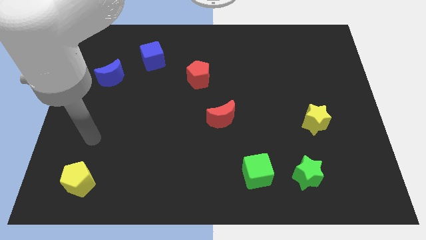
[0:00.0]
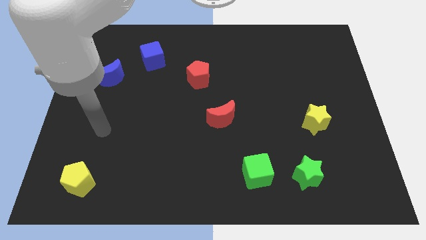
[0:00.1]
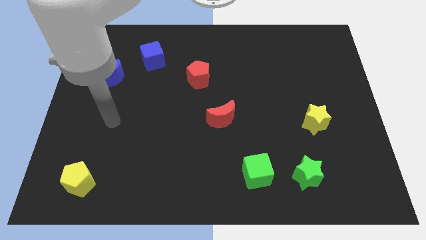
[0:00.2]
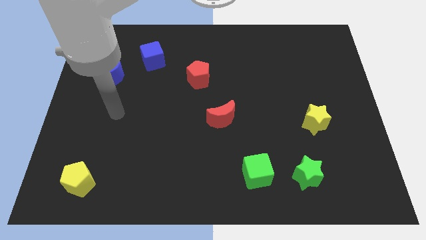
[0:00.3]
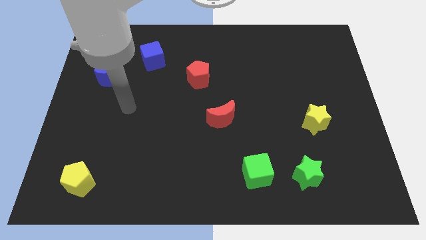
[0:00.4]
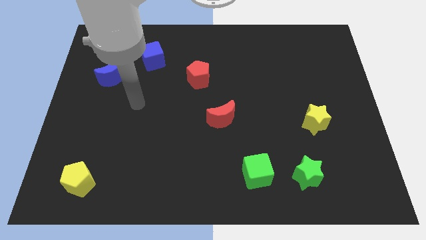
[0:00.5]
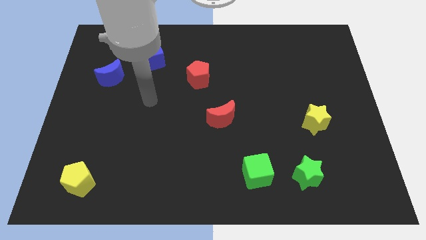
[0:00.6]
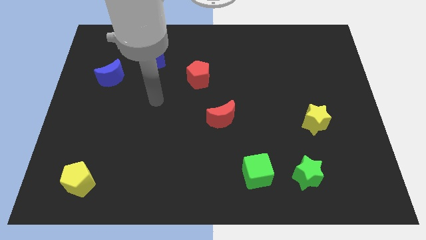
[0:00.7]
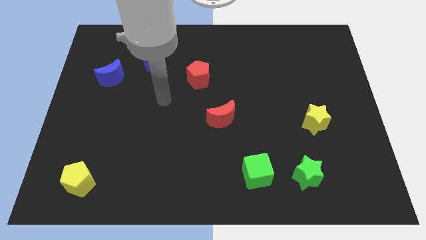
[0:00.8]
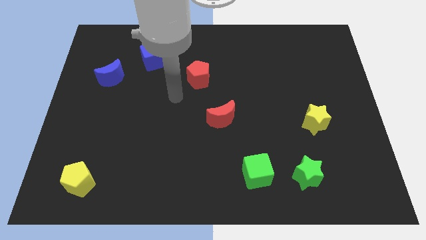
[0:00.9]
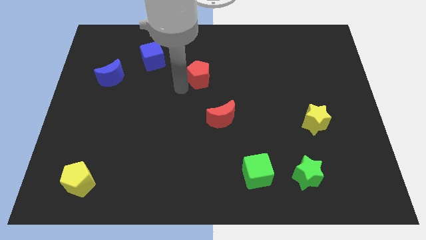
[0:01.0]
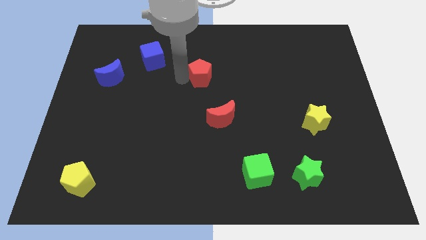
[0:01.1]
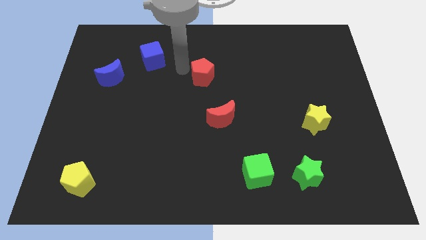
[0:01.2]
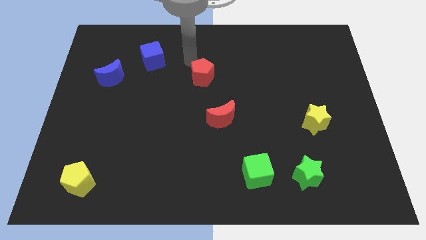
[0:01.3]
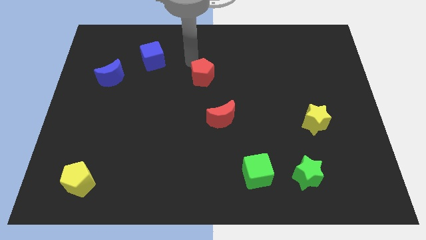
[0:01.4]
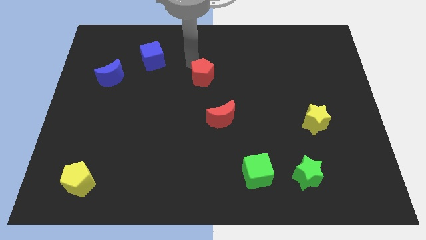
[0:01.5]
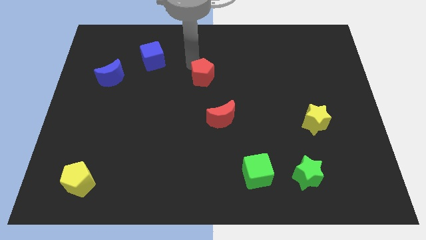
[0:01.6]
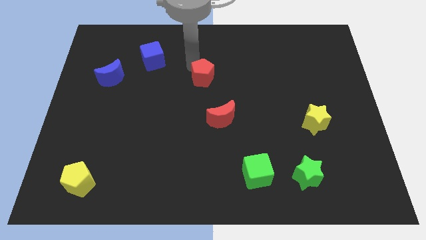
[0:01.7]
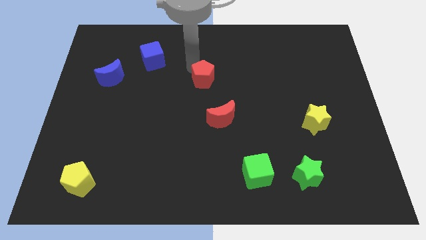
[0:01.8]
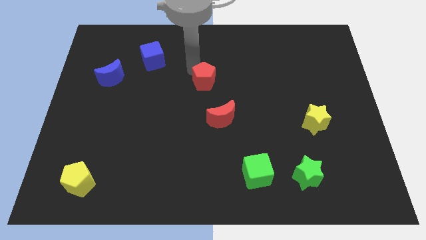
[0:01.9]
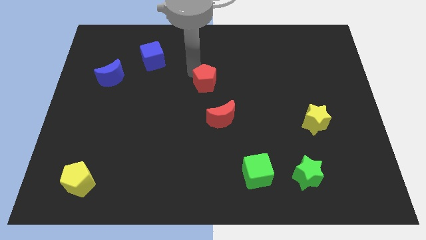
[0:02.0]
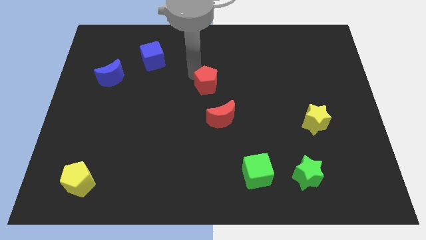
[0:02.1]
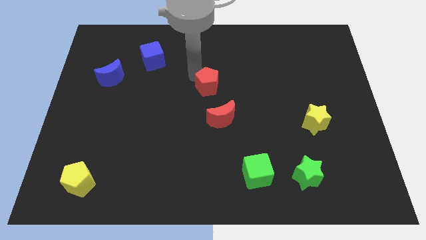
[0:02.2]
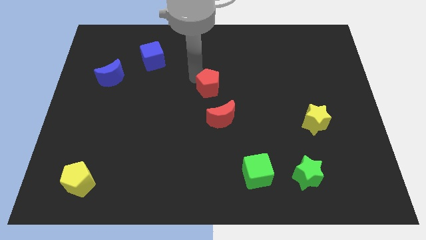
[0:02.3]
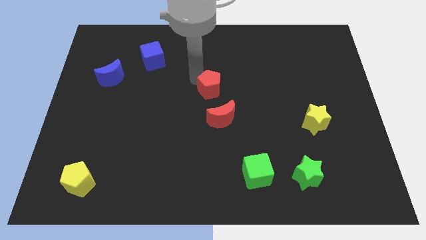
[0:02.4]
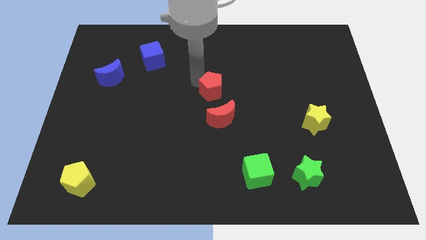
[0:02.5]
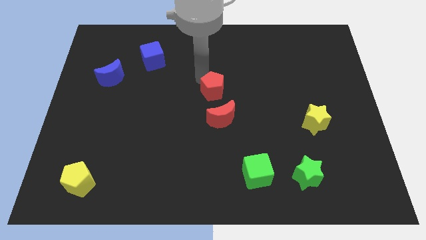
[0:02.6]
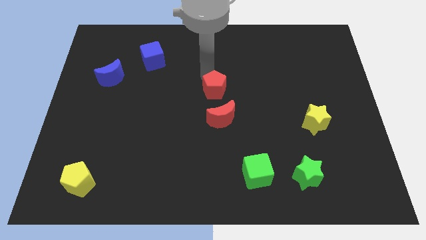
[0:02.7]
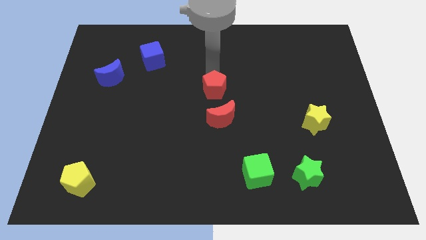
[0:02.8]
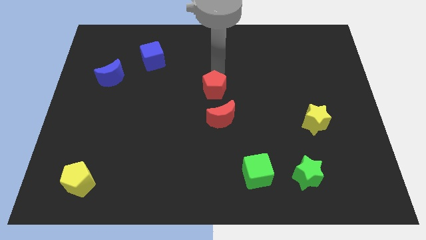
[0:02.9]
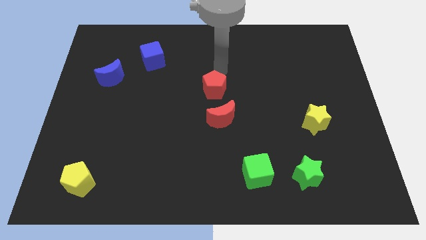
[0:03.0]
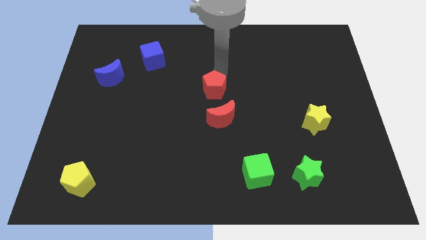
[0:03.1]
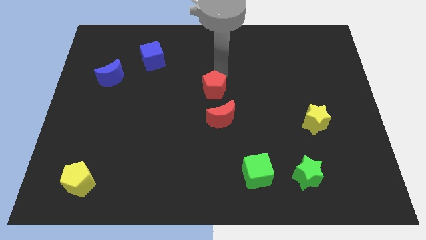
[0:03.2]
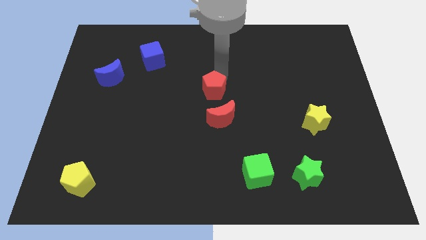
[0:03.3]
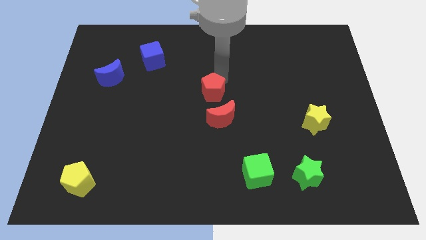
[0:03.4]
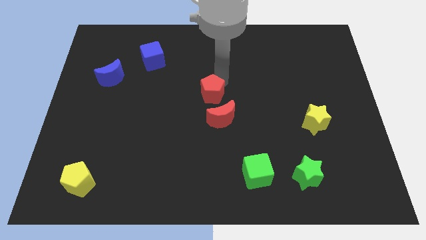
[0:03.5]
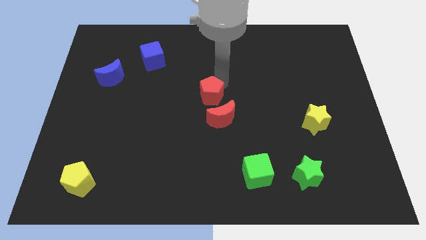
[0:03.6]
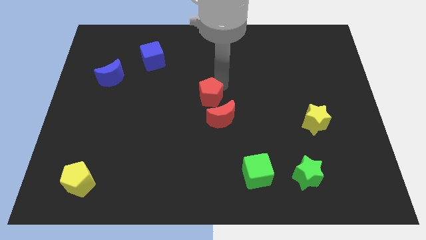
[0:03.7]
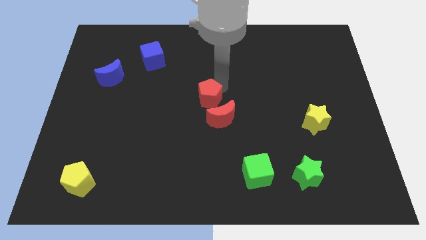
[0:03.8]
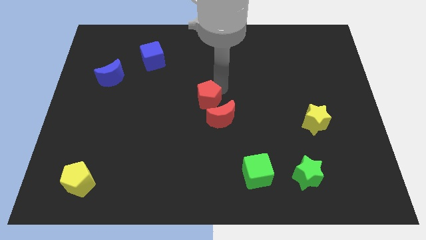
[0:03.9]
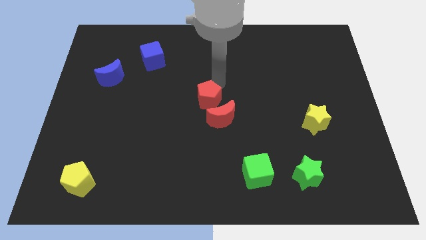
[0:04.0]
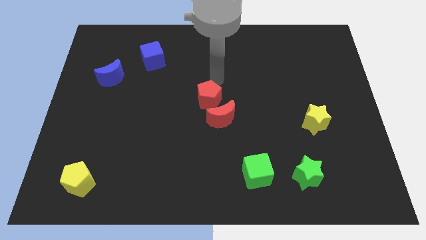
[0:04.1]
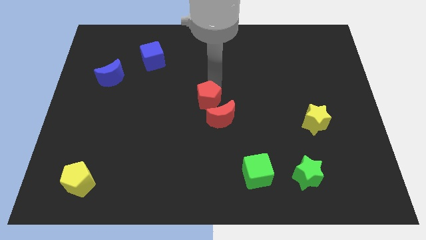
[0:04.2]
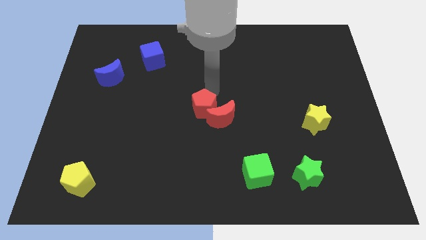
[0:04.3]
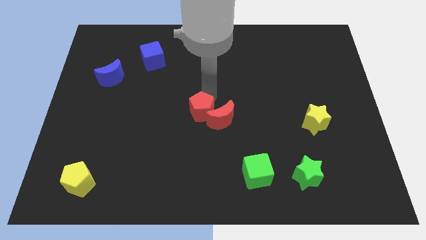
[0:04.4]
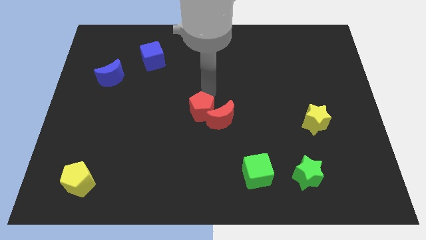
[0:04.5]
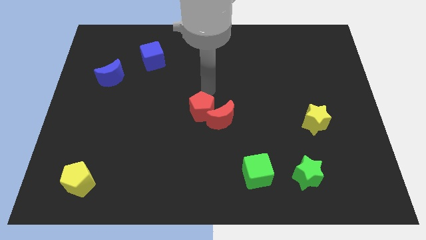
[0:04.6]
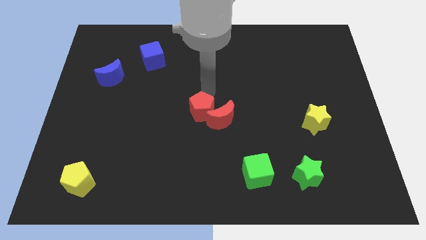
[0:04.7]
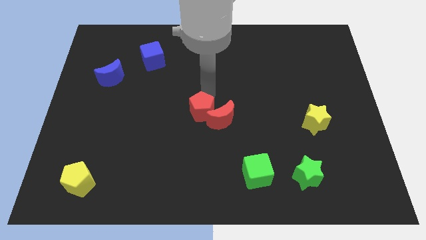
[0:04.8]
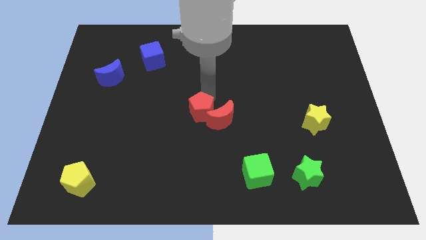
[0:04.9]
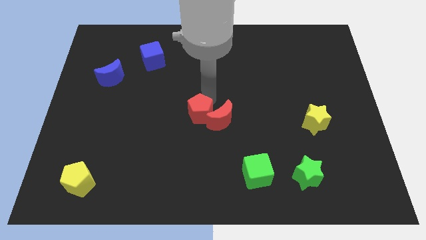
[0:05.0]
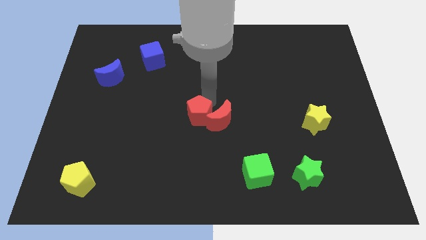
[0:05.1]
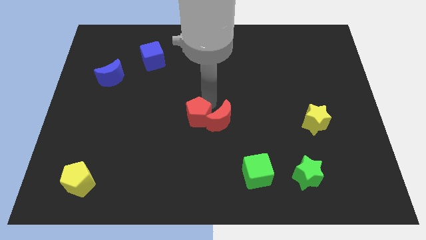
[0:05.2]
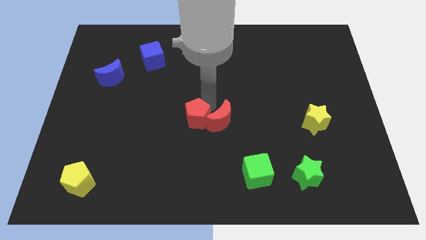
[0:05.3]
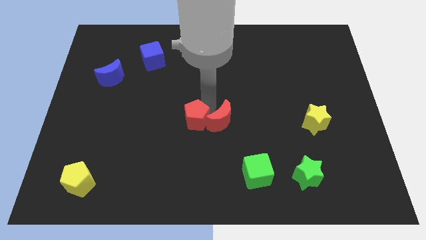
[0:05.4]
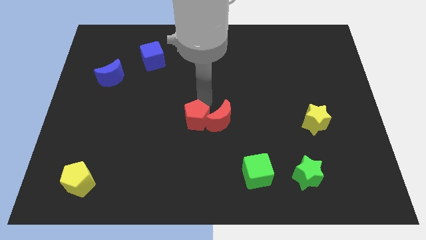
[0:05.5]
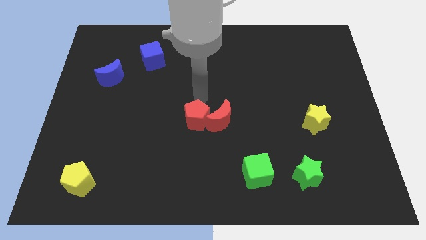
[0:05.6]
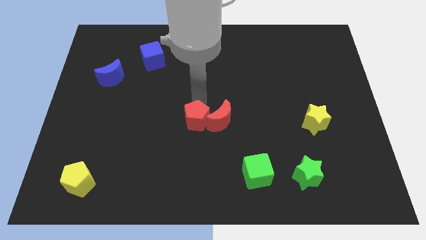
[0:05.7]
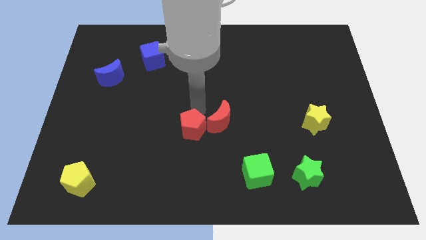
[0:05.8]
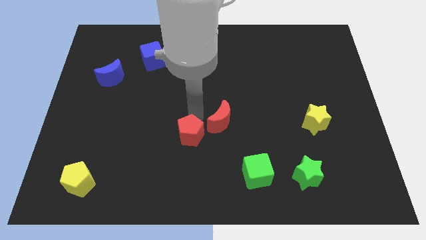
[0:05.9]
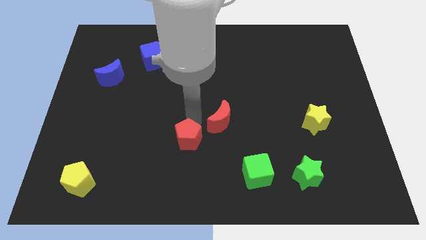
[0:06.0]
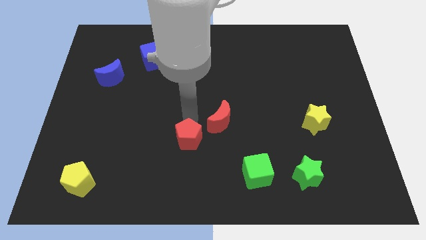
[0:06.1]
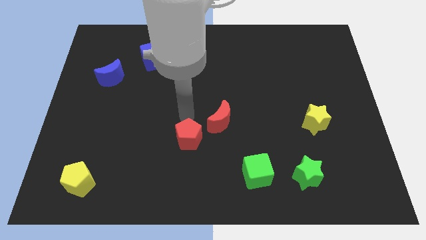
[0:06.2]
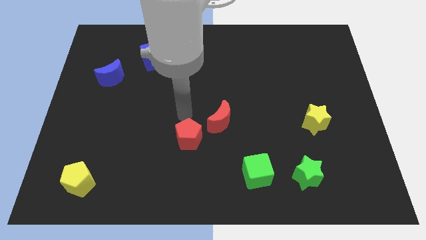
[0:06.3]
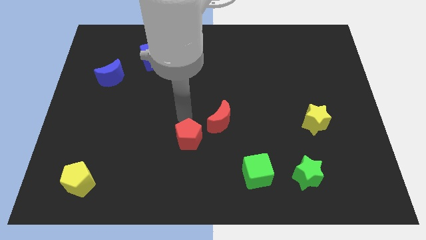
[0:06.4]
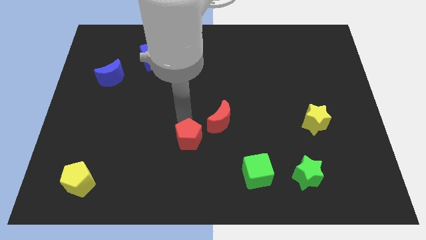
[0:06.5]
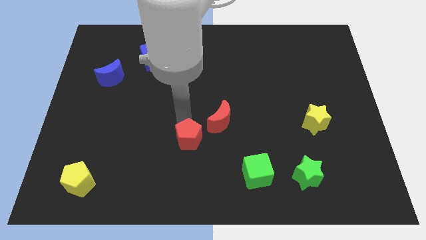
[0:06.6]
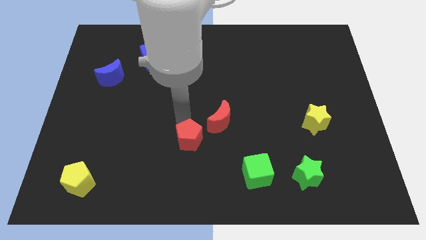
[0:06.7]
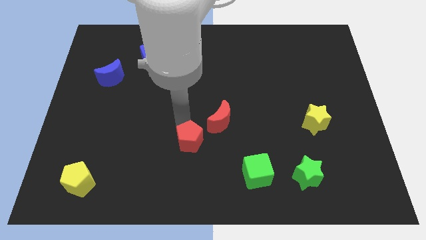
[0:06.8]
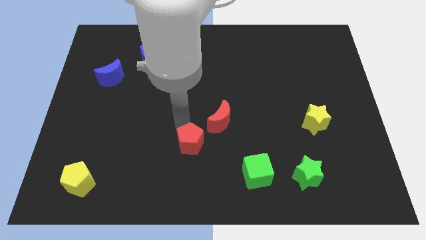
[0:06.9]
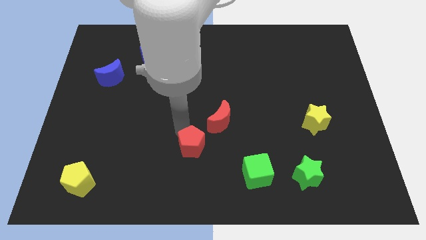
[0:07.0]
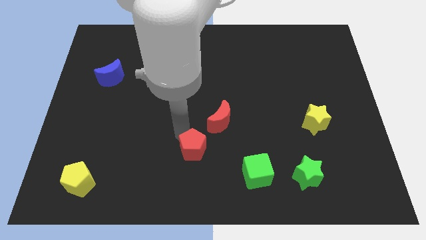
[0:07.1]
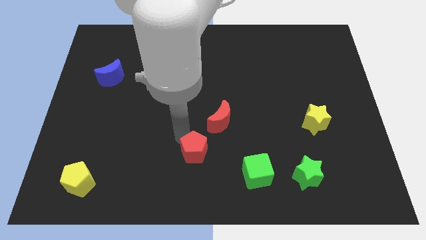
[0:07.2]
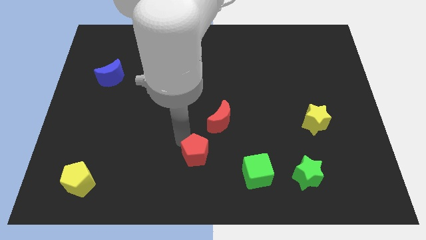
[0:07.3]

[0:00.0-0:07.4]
slide the red pentagon to the bottom side
